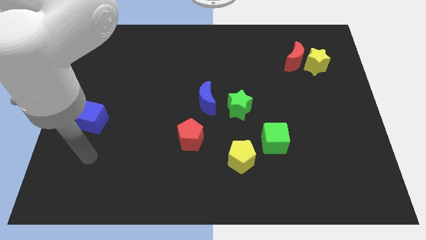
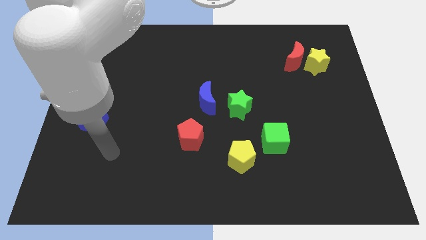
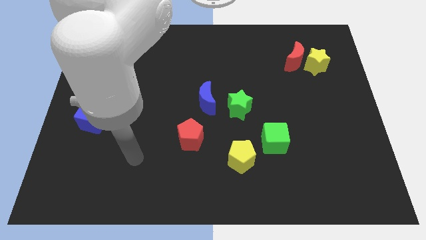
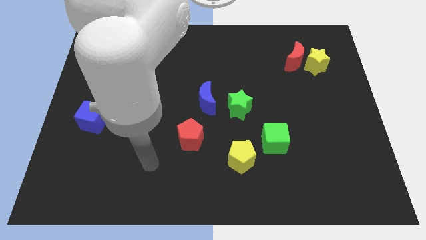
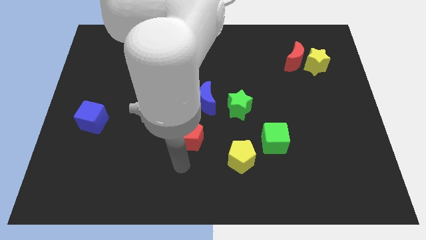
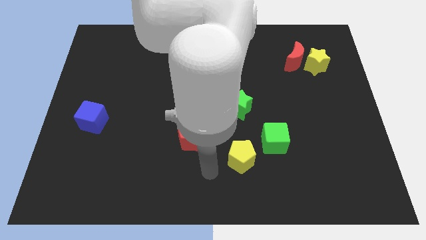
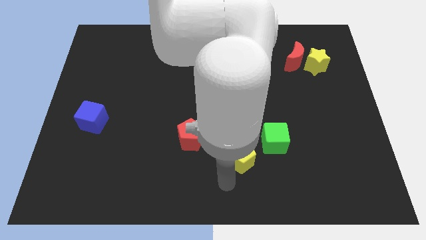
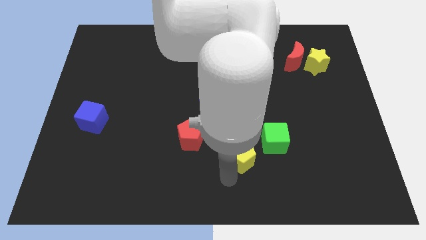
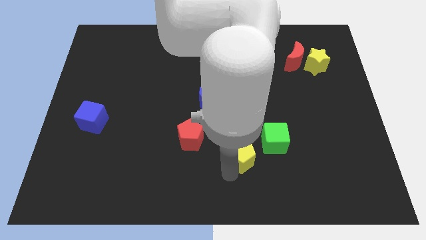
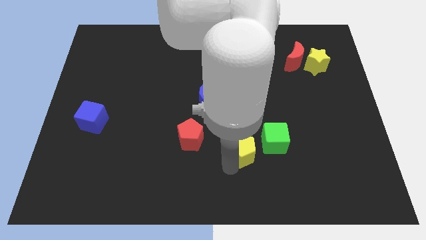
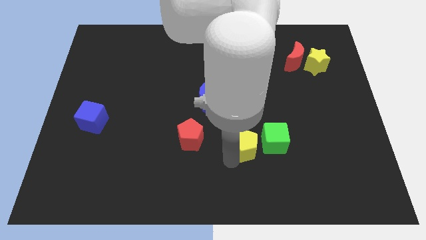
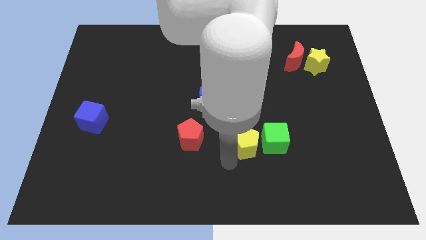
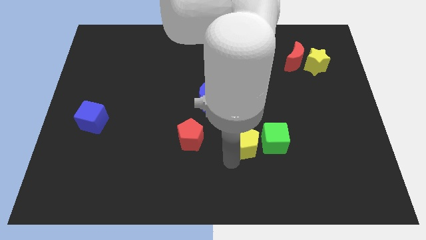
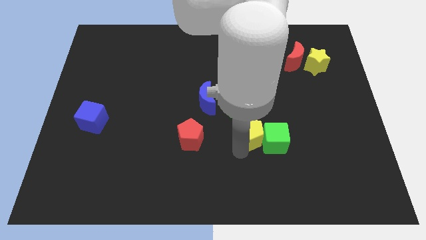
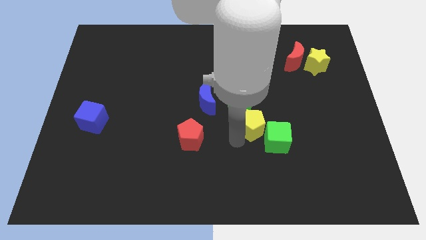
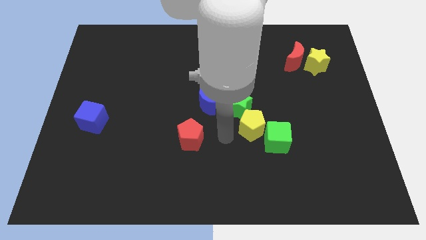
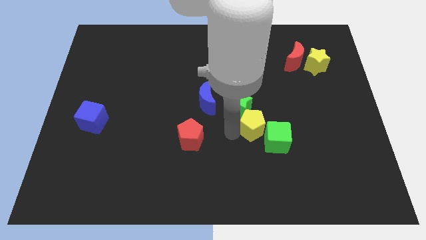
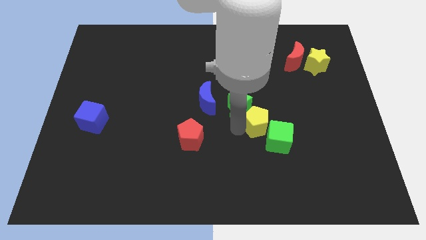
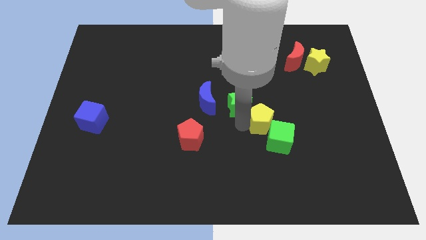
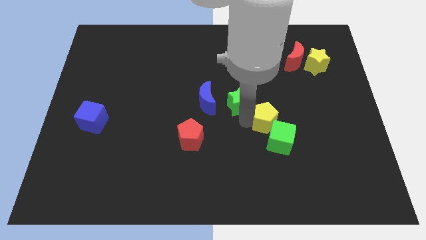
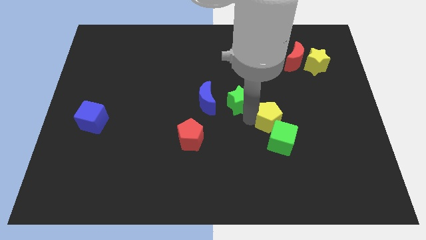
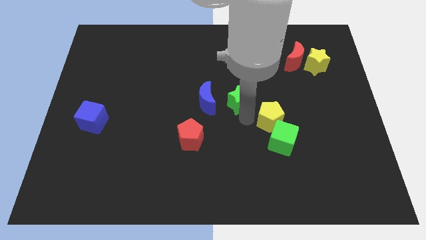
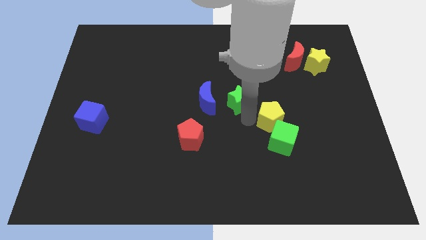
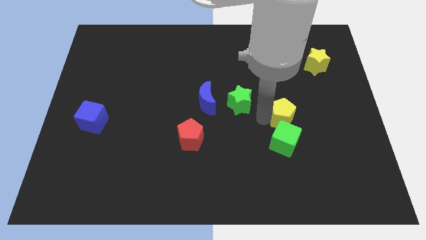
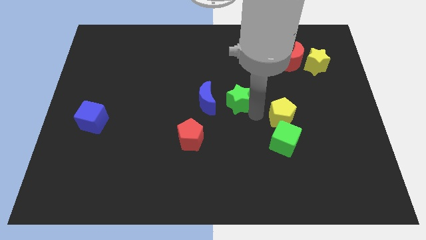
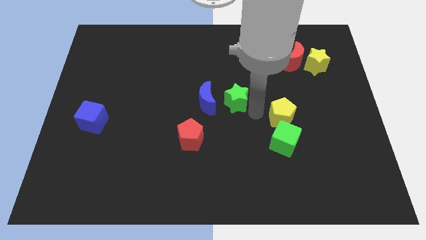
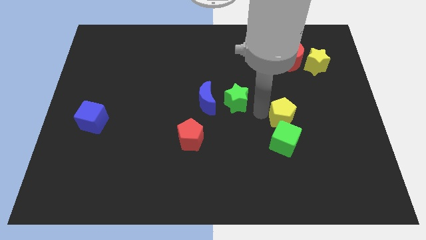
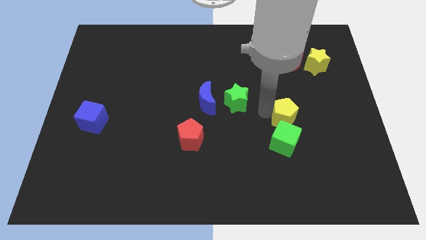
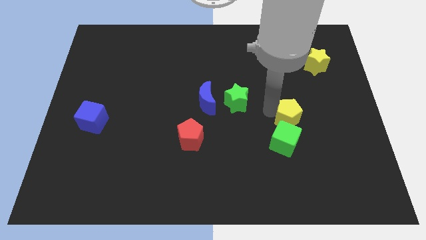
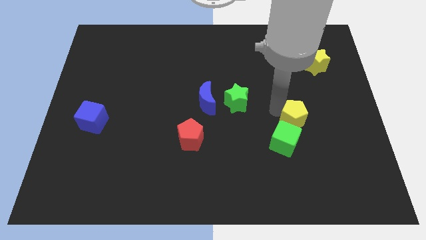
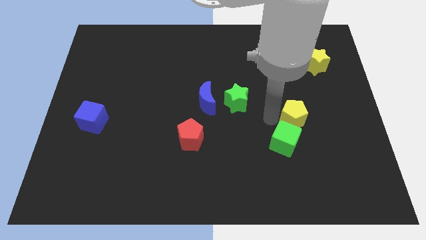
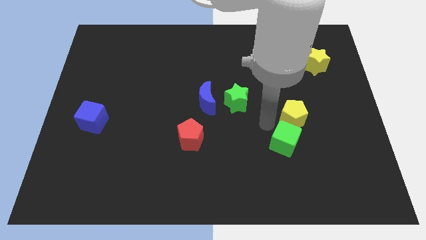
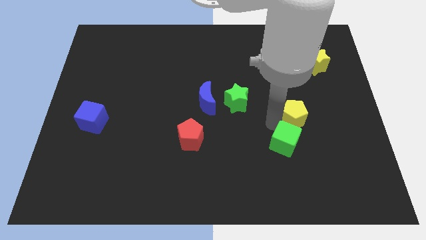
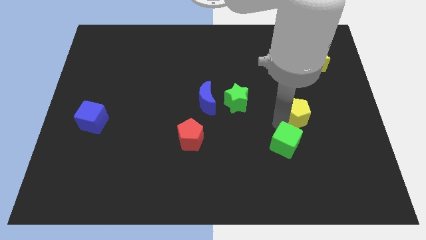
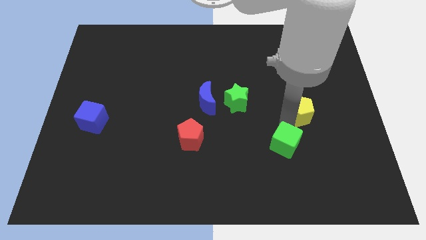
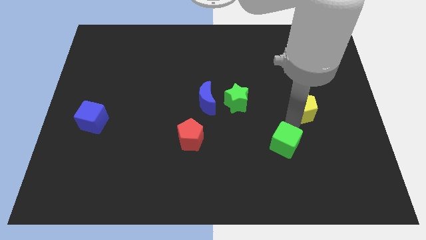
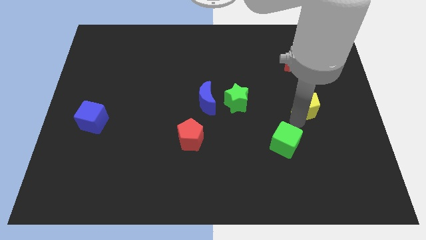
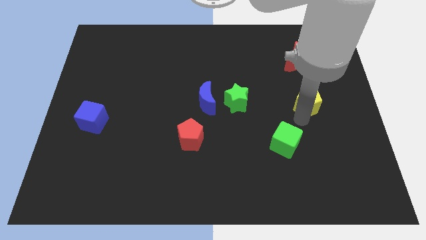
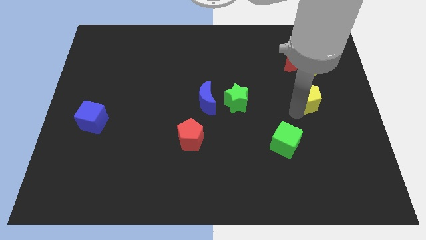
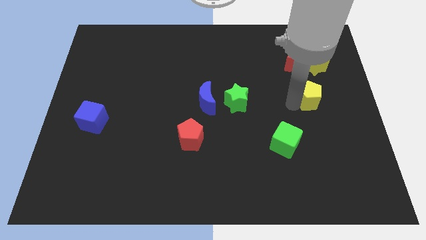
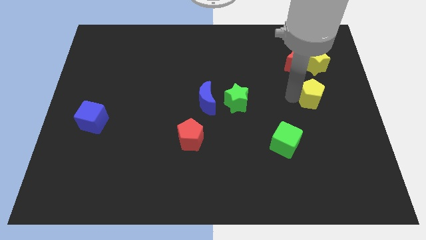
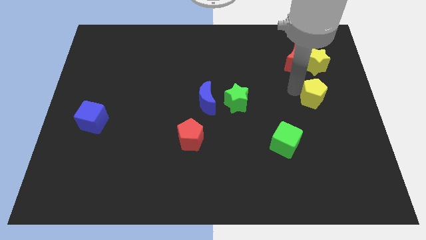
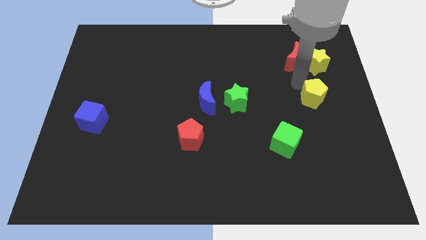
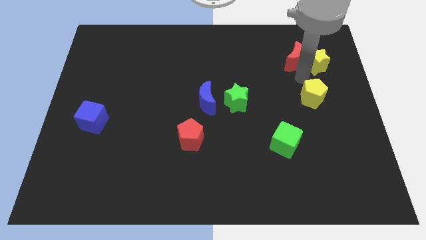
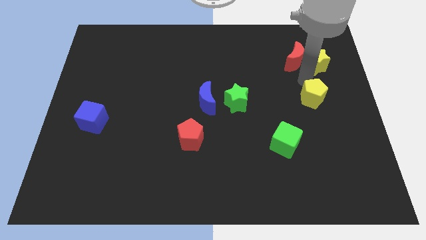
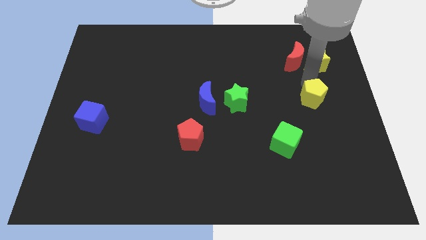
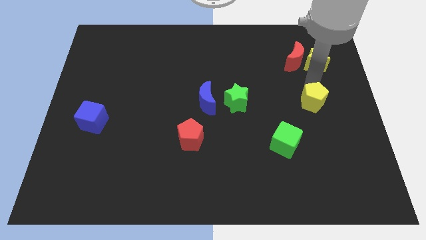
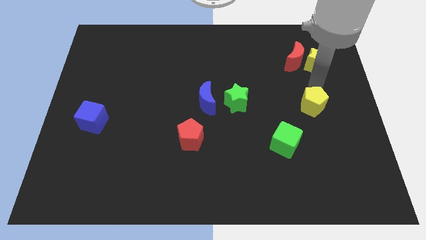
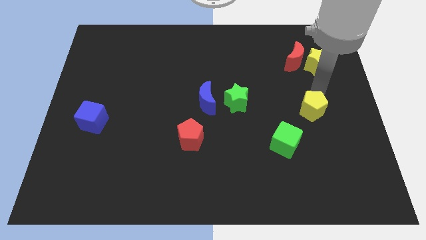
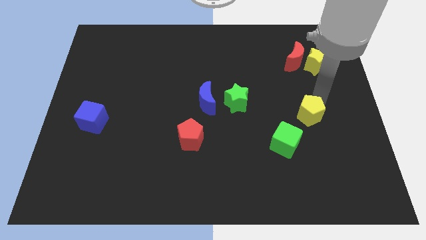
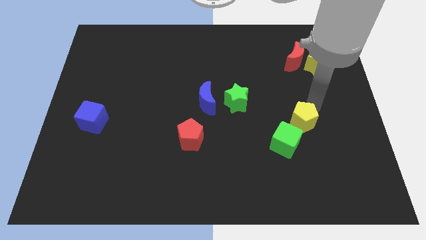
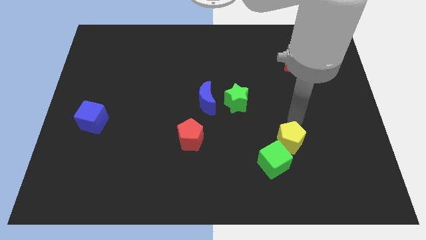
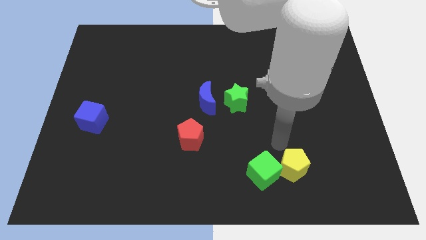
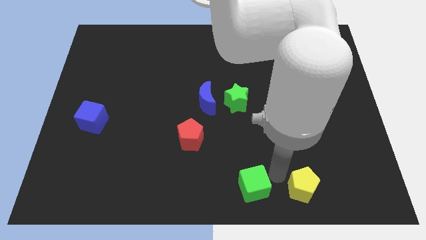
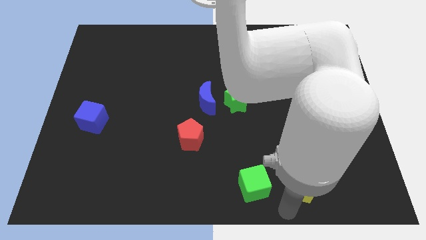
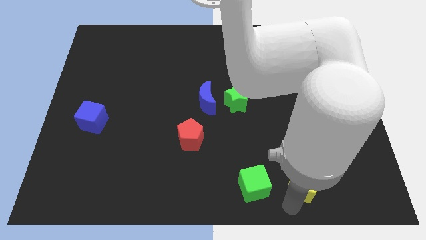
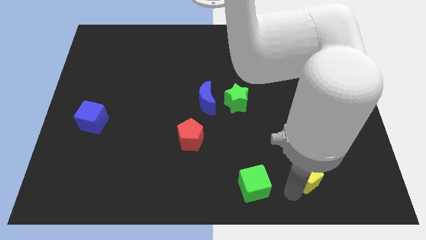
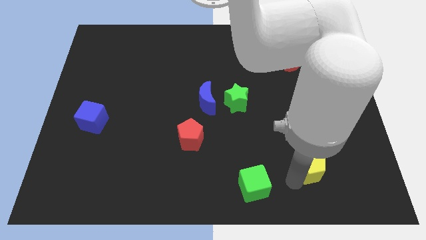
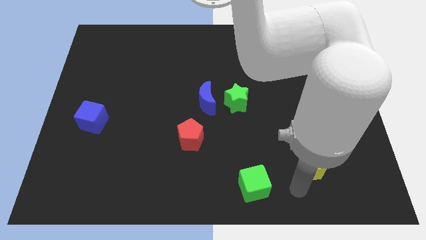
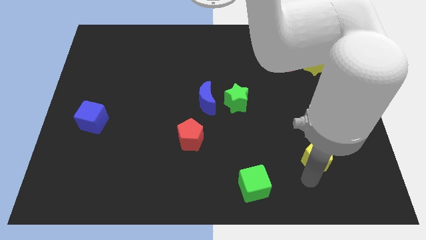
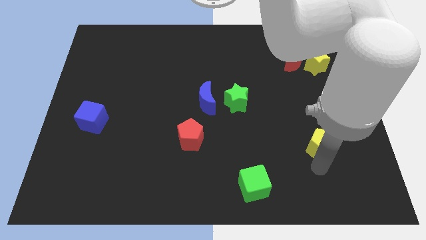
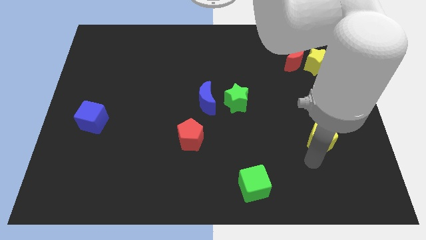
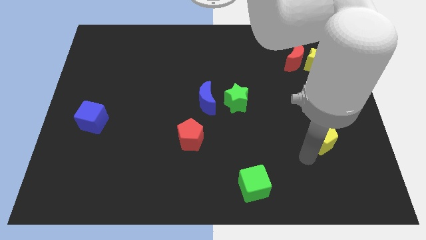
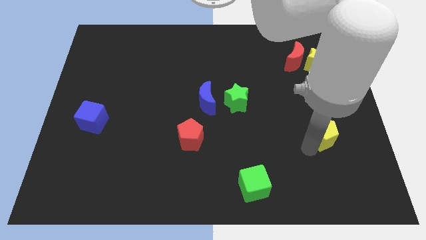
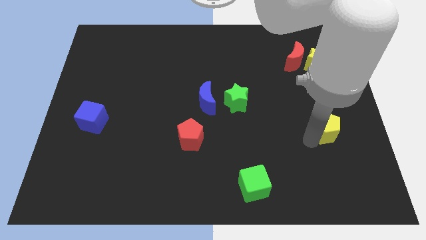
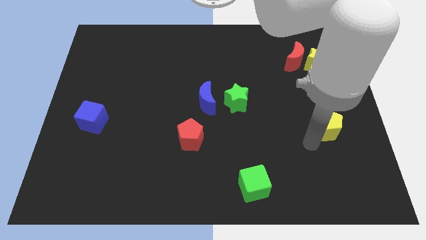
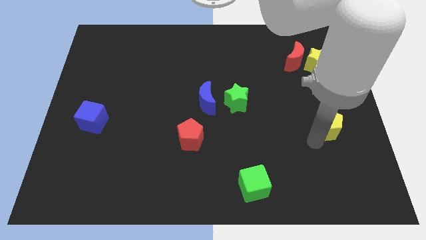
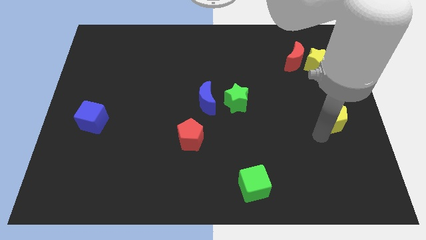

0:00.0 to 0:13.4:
move the yellow pentagon to the center right
